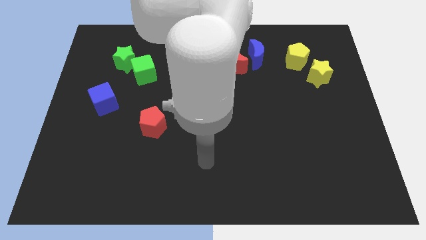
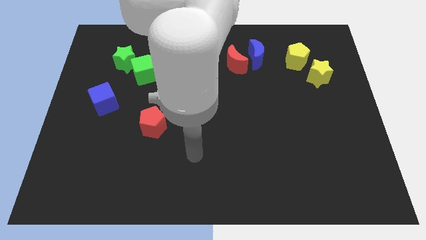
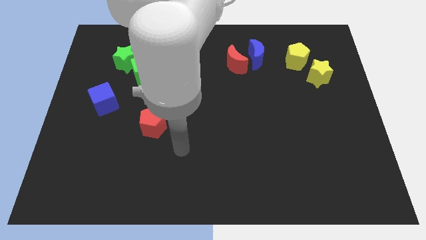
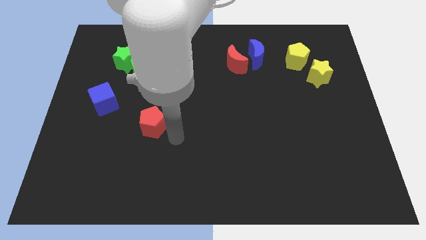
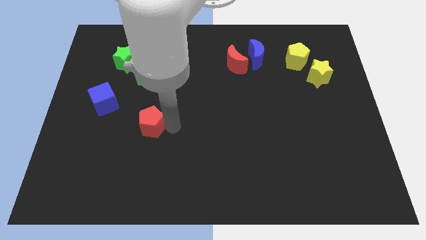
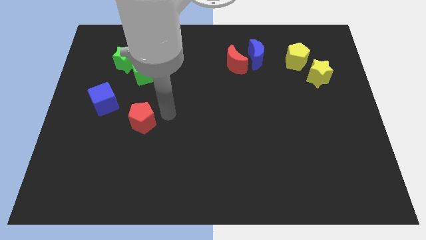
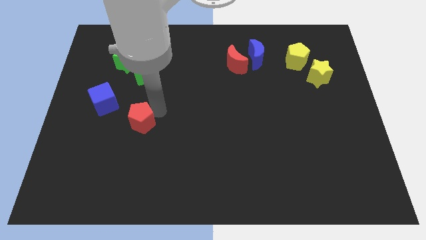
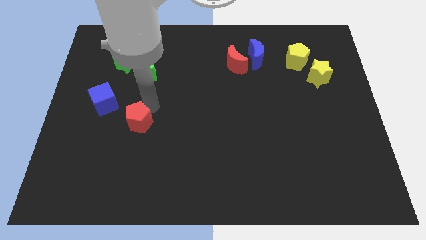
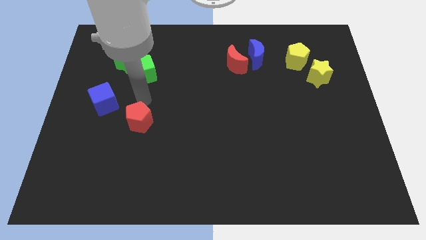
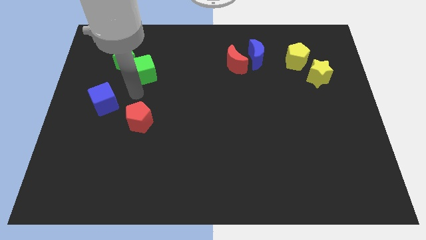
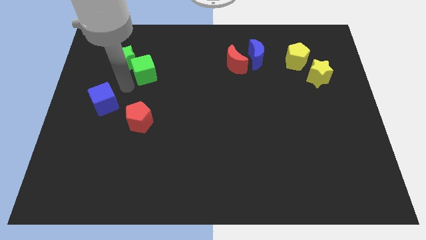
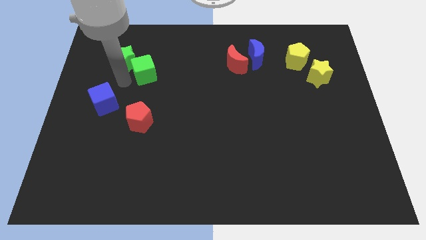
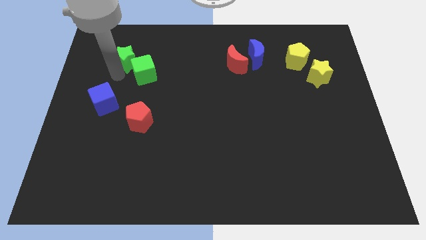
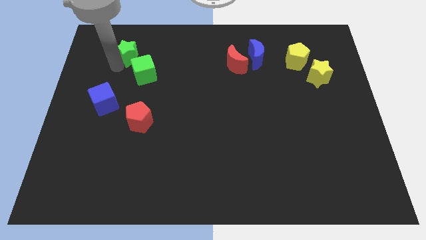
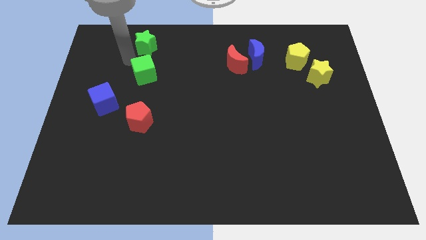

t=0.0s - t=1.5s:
separate the green cube from the green star

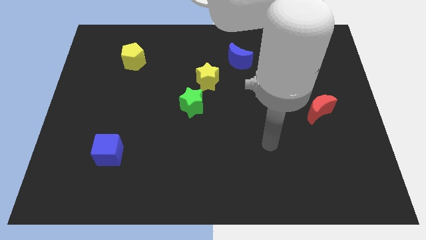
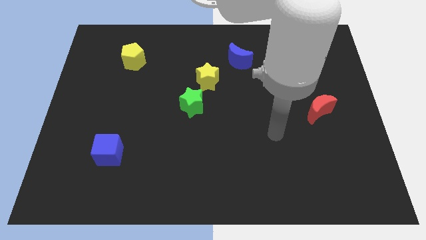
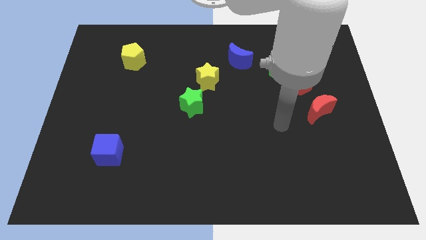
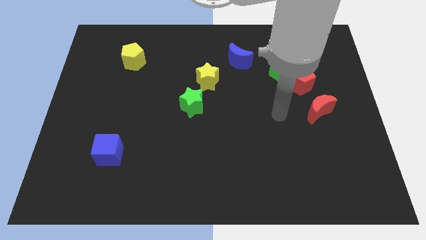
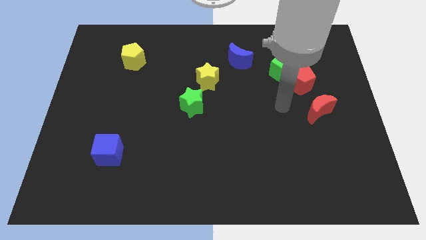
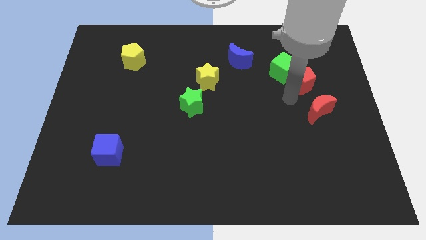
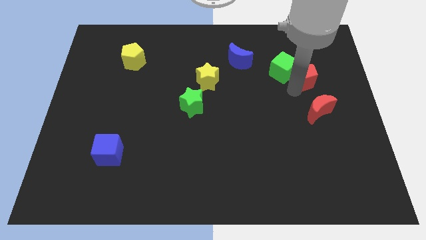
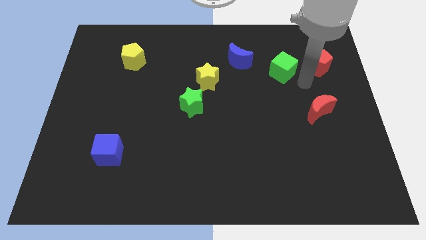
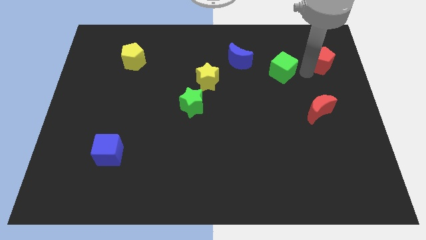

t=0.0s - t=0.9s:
move the green cube away from the red pentagon

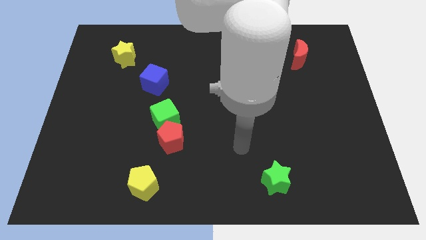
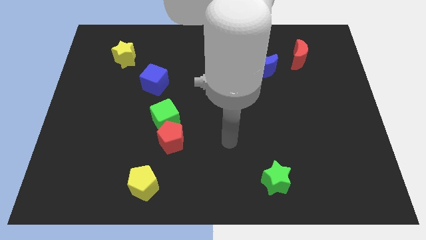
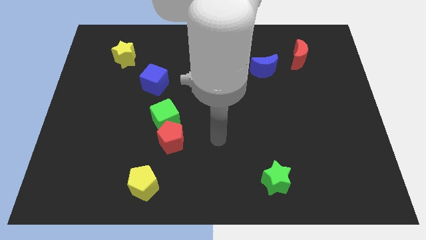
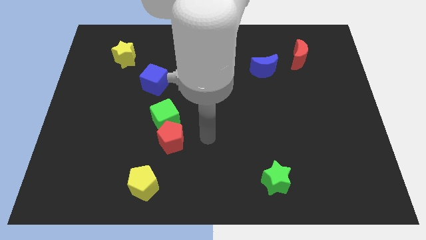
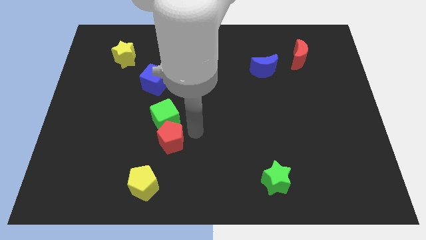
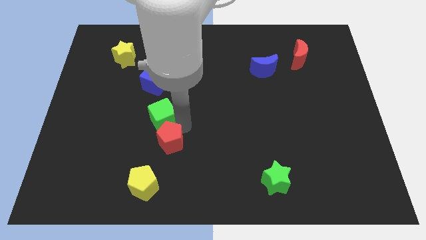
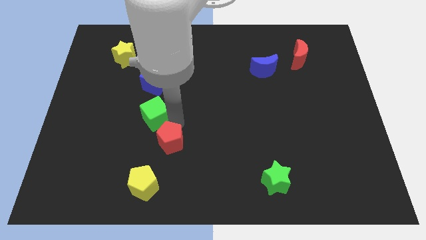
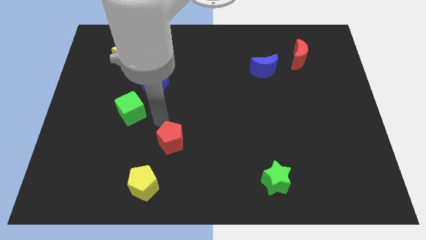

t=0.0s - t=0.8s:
pull the red pentagon apart from the green cube

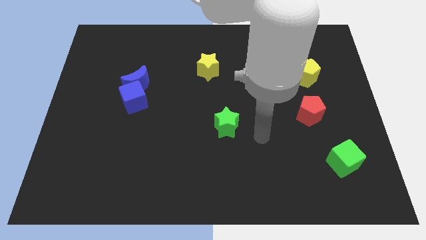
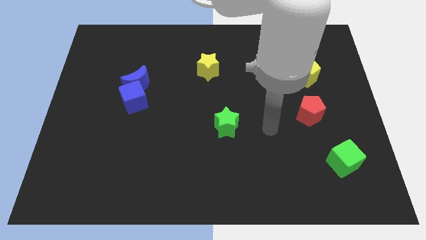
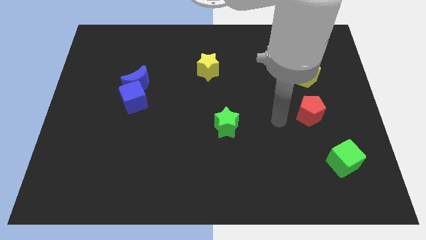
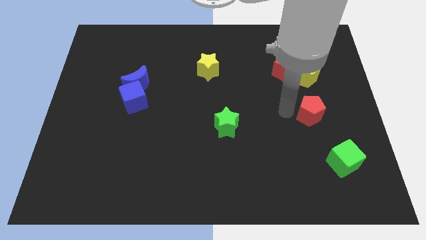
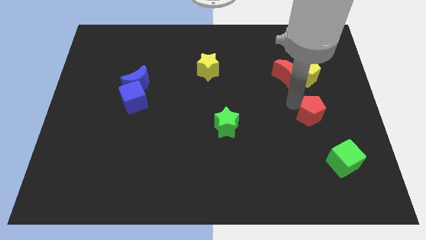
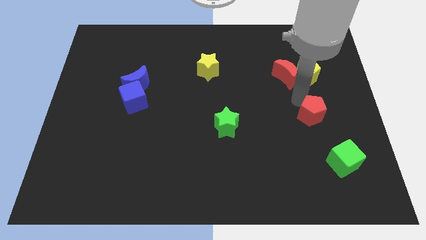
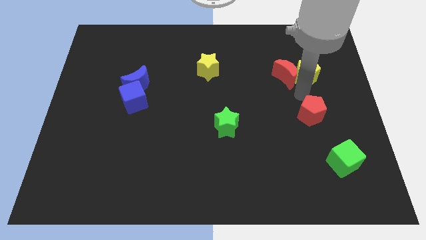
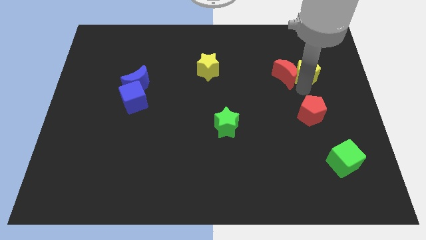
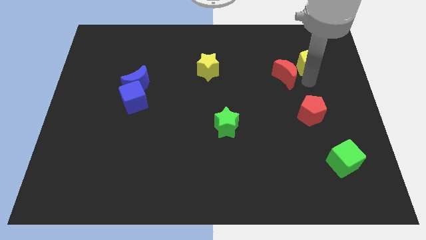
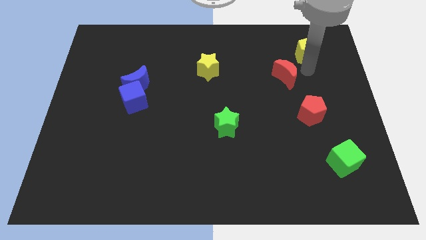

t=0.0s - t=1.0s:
move the red moon away from the yellow pentagon

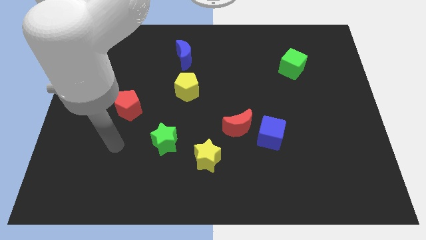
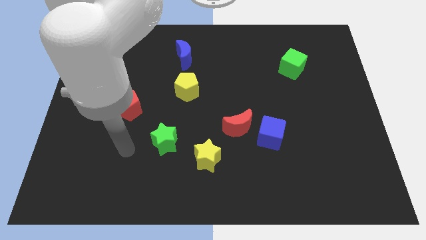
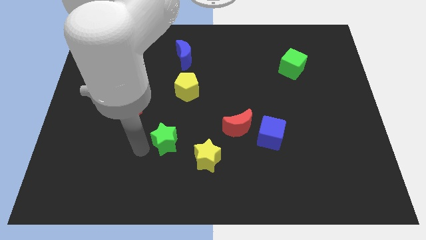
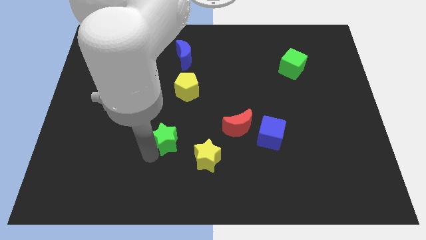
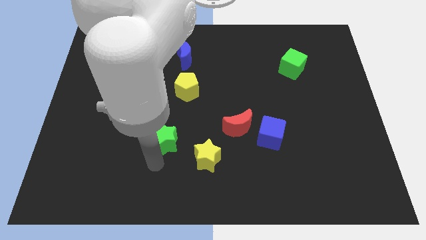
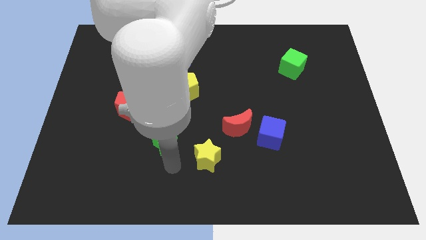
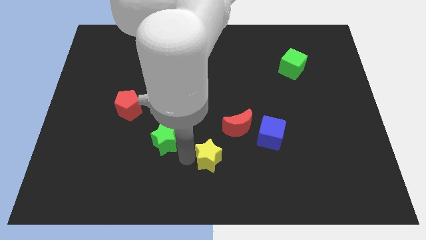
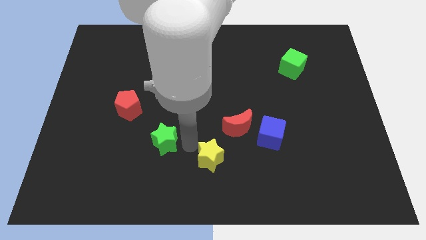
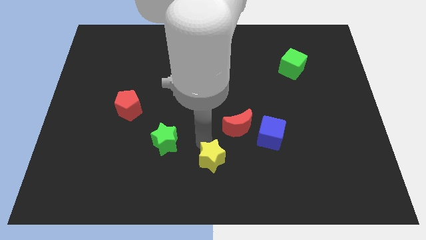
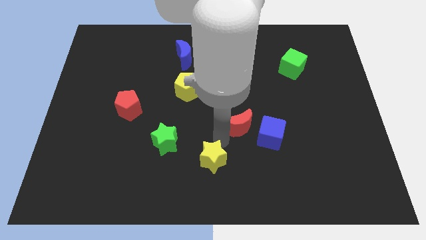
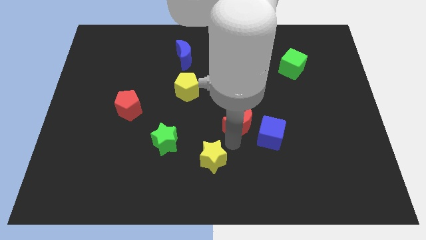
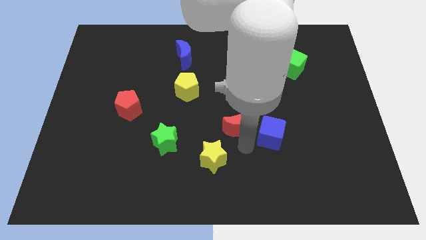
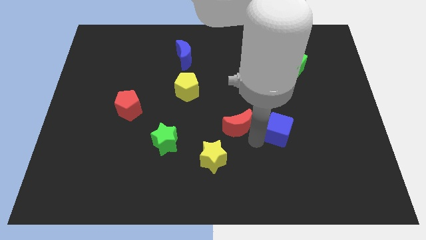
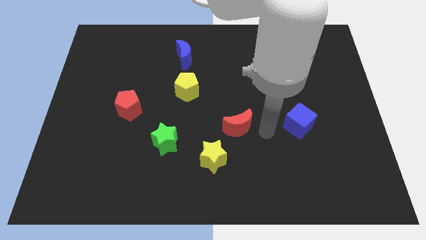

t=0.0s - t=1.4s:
move the red moon away from the blue cube

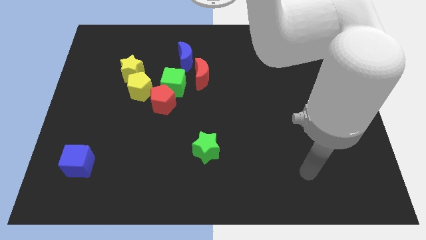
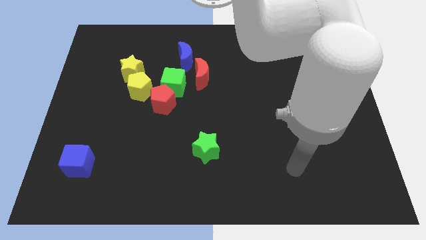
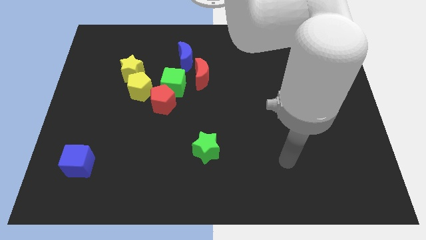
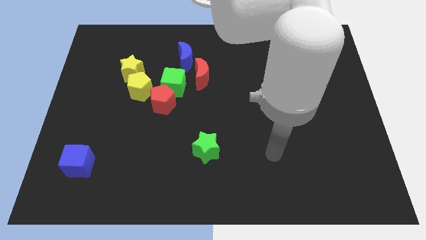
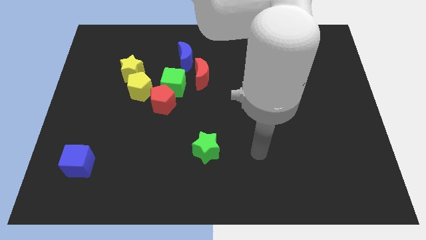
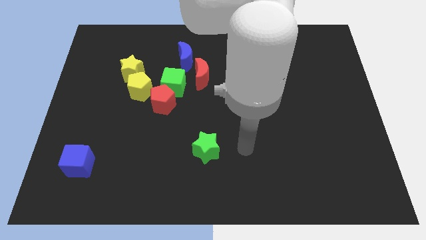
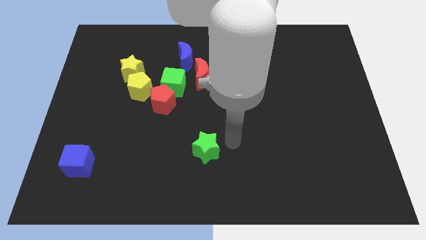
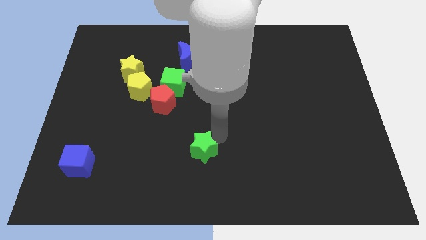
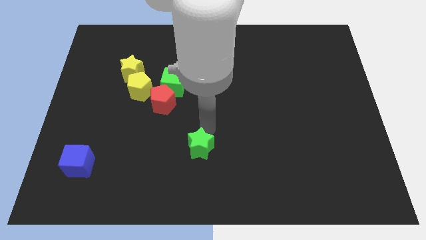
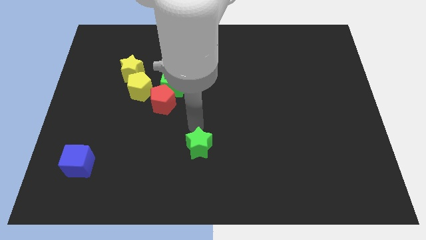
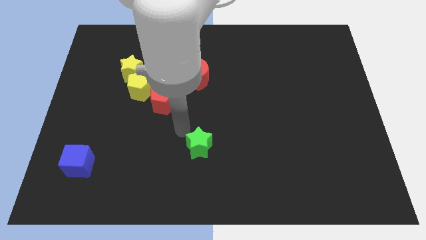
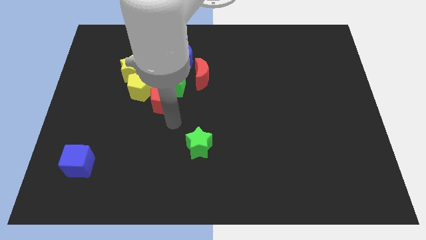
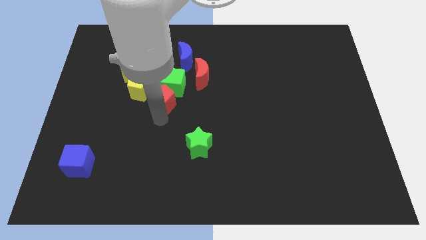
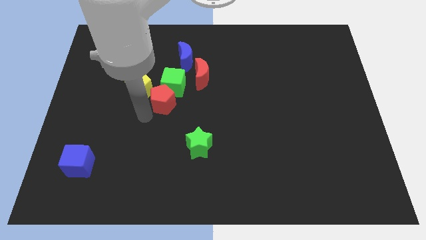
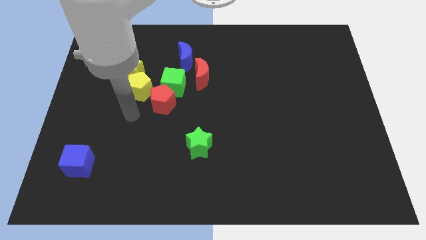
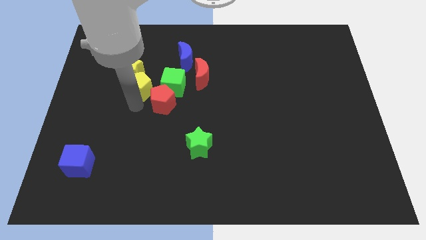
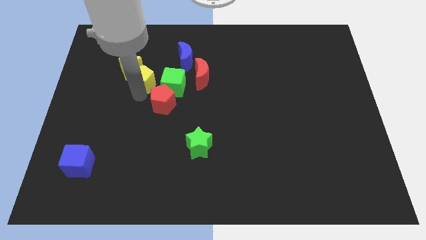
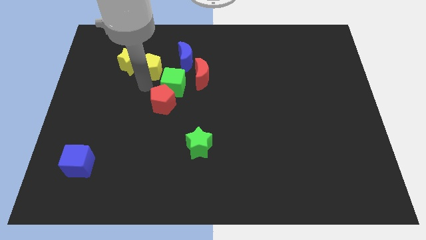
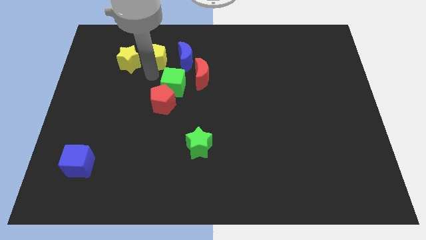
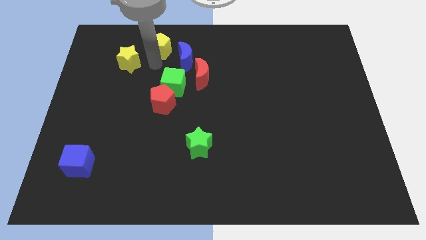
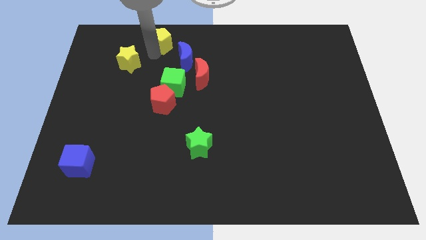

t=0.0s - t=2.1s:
pull the yellow star apart from the yellow pentagon

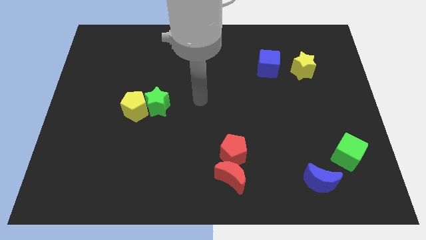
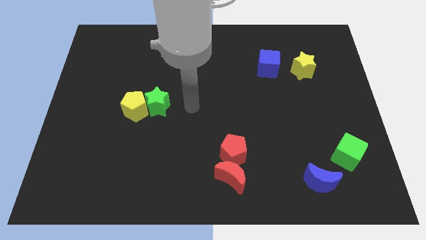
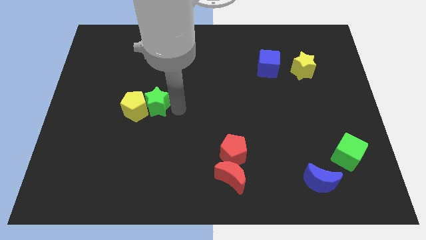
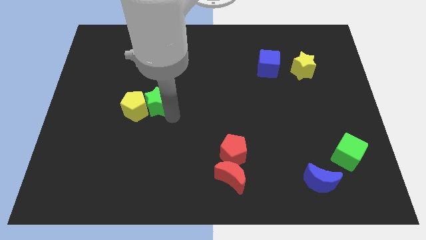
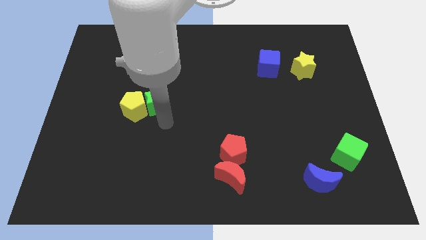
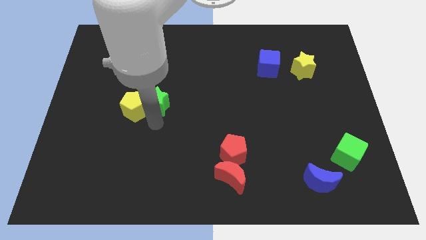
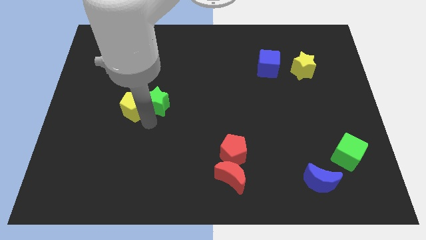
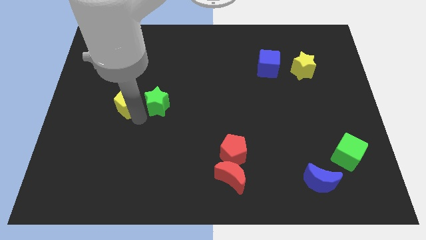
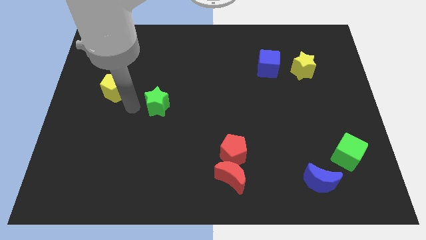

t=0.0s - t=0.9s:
move the green star away from the yellow pentagon

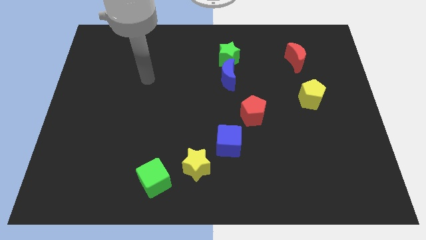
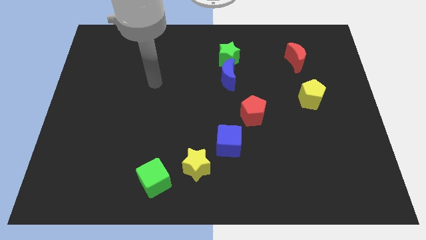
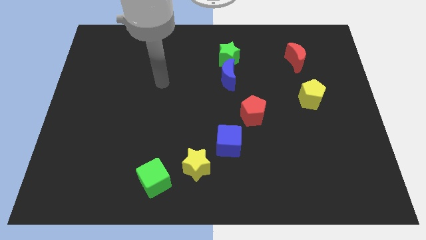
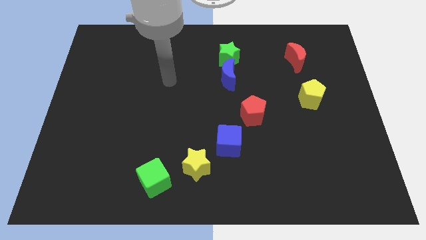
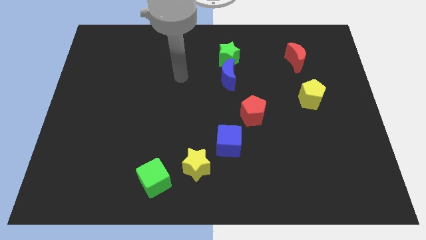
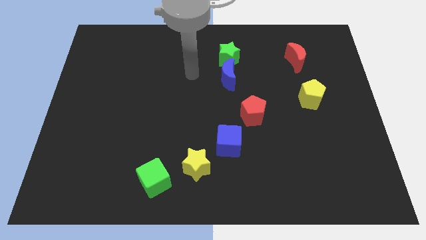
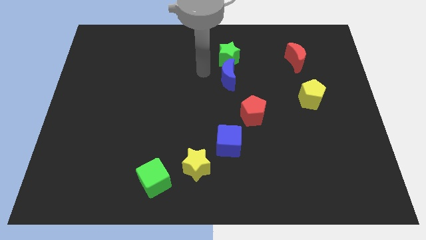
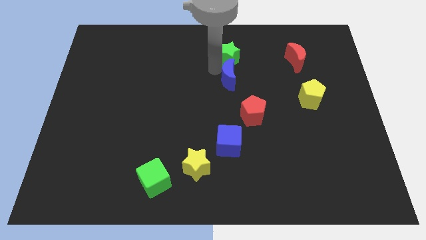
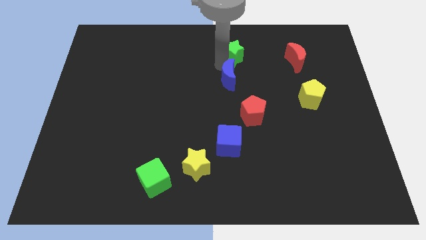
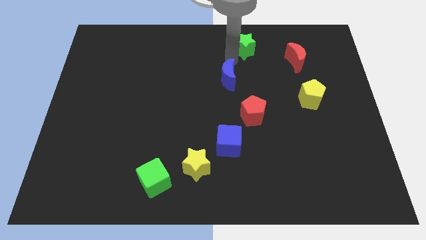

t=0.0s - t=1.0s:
pull the blue moon apart from the green star
